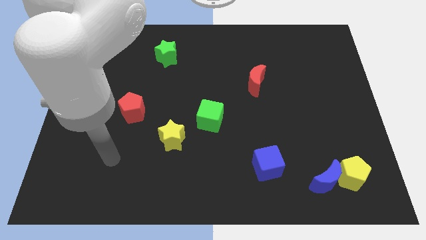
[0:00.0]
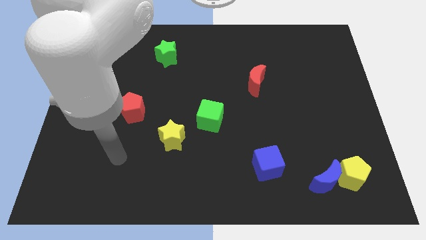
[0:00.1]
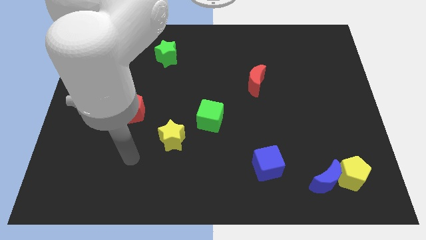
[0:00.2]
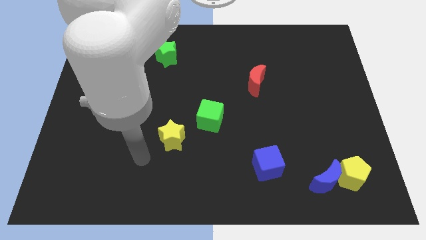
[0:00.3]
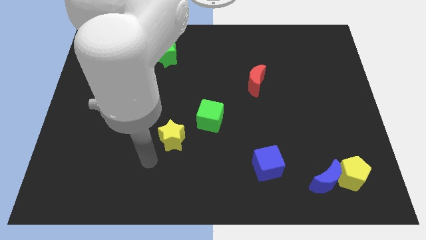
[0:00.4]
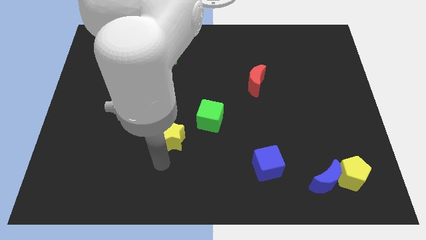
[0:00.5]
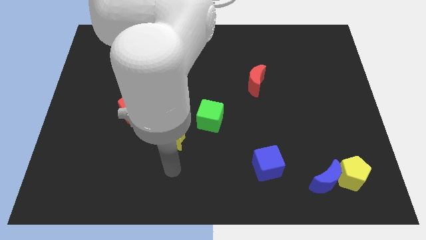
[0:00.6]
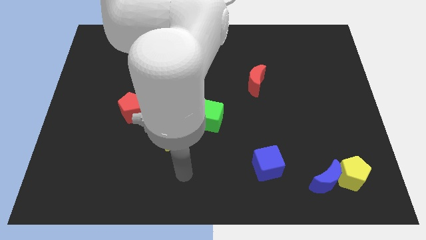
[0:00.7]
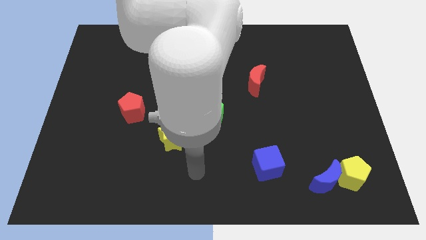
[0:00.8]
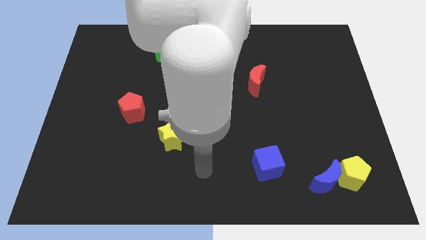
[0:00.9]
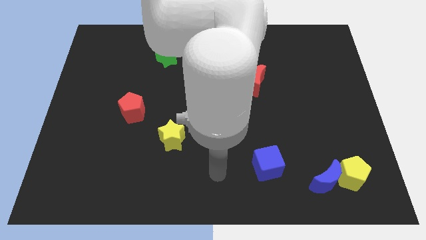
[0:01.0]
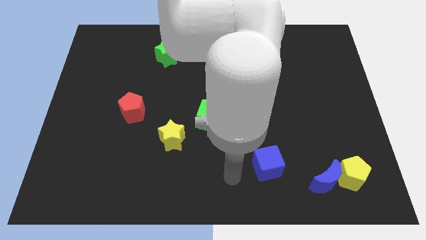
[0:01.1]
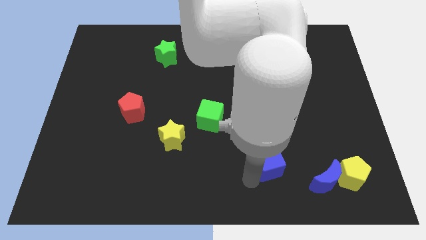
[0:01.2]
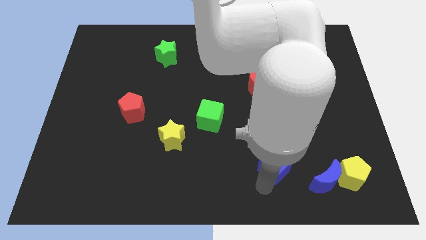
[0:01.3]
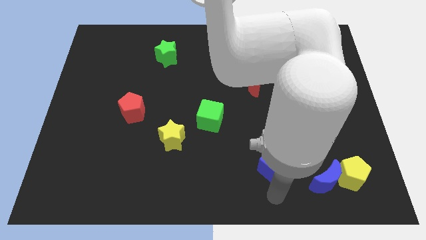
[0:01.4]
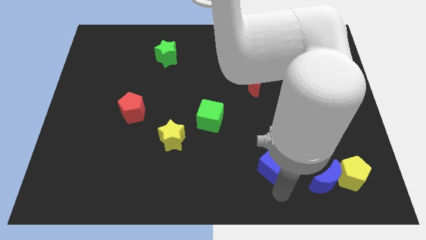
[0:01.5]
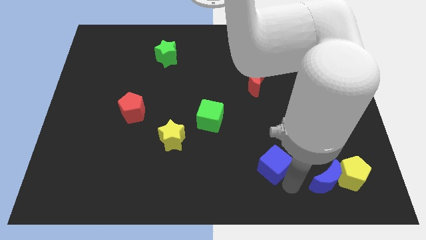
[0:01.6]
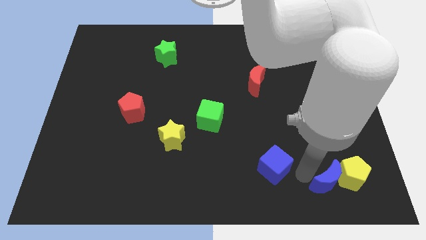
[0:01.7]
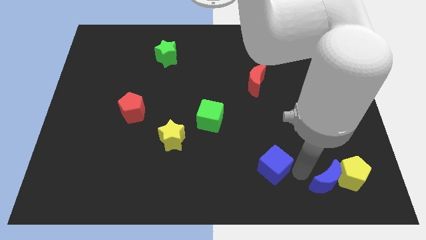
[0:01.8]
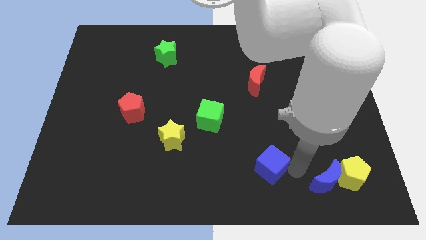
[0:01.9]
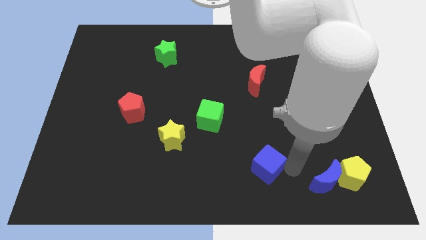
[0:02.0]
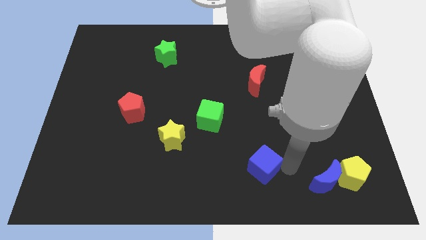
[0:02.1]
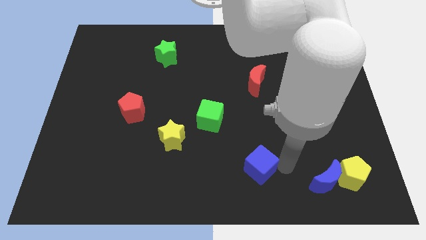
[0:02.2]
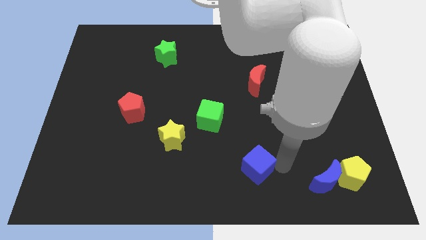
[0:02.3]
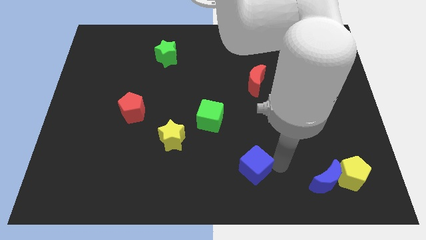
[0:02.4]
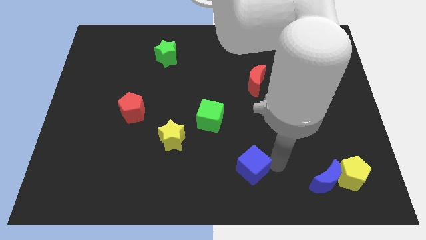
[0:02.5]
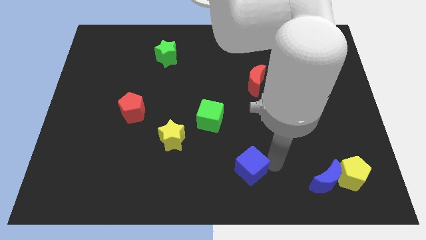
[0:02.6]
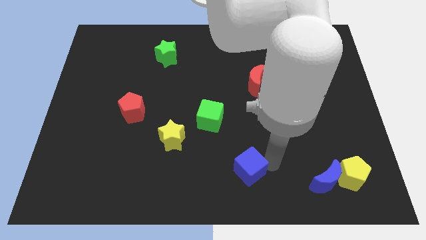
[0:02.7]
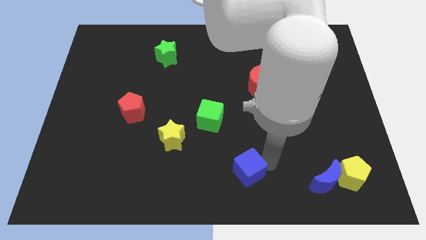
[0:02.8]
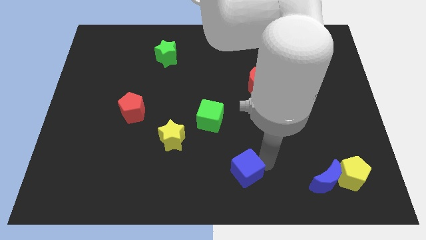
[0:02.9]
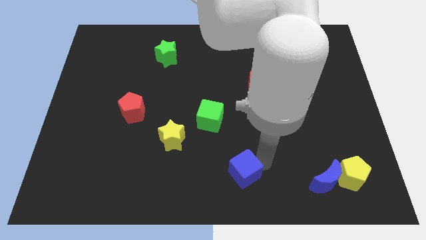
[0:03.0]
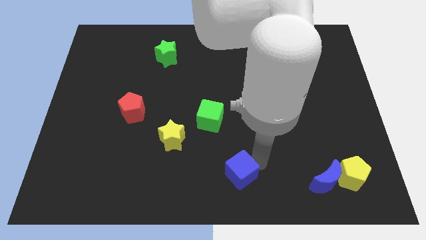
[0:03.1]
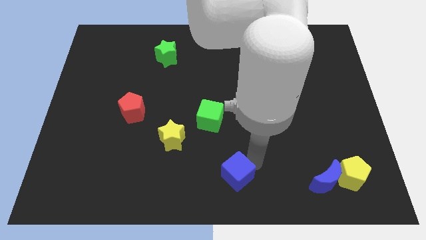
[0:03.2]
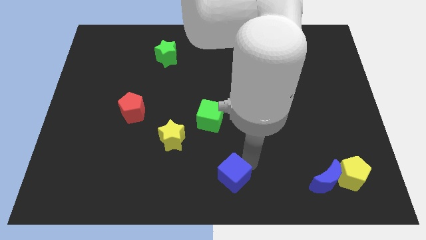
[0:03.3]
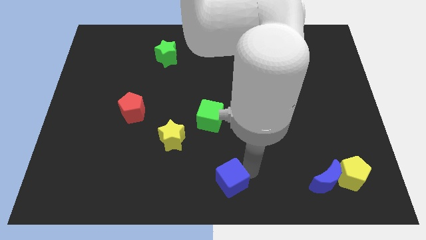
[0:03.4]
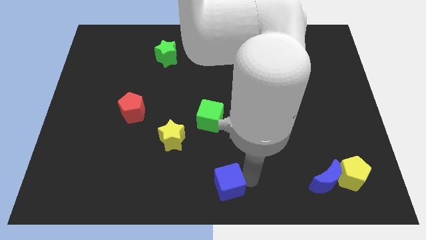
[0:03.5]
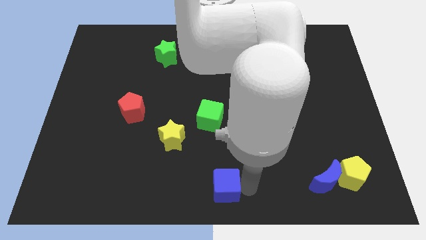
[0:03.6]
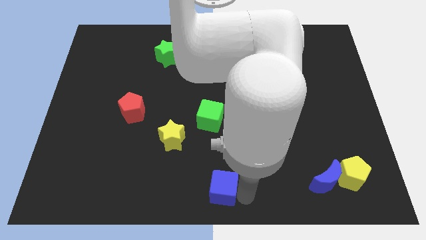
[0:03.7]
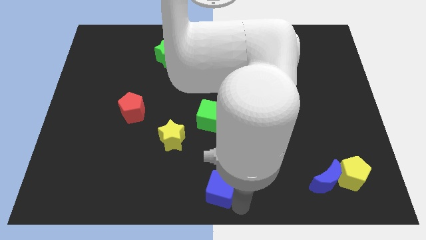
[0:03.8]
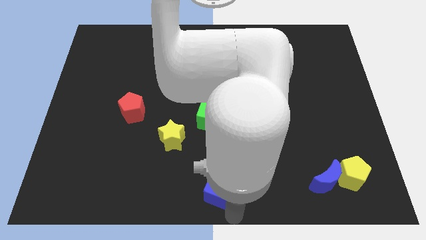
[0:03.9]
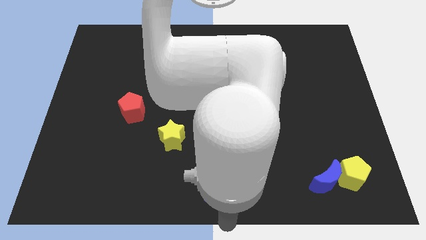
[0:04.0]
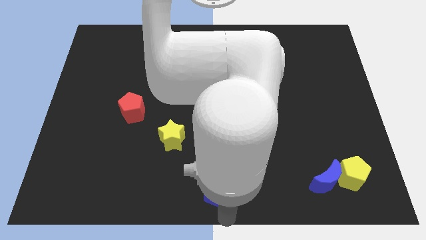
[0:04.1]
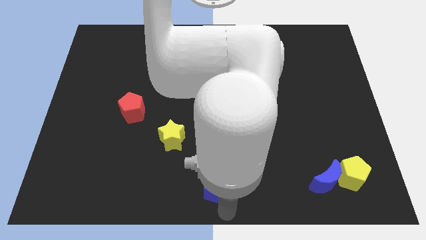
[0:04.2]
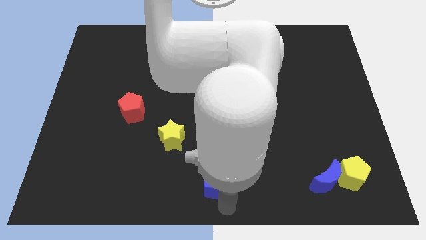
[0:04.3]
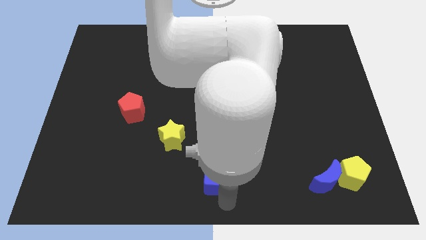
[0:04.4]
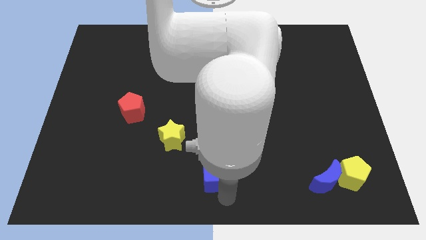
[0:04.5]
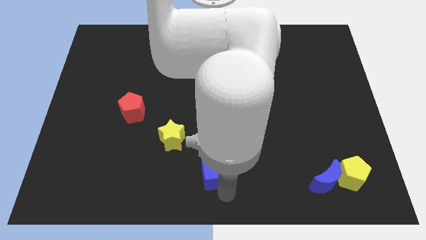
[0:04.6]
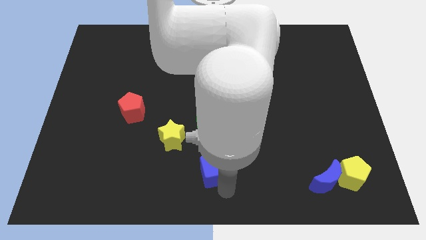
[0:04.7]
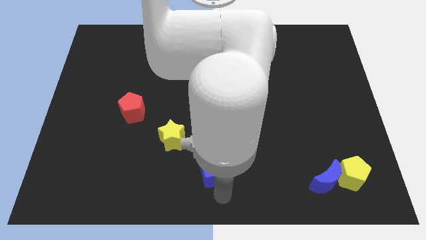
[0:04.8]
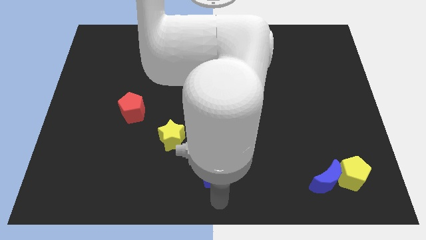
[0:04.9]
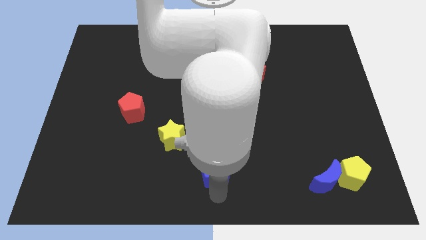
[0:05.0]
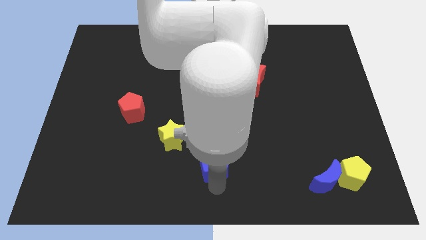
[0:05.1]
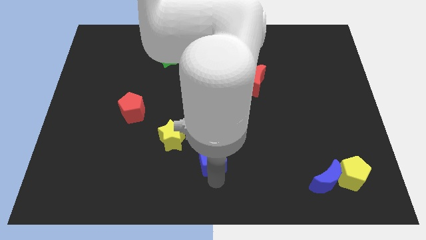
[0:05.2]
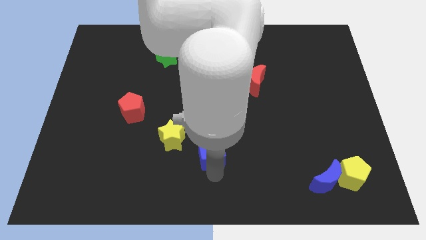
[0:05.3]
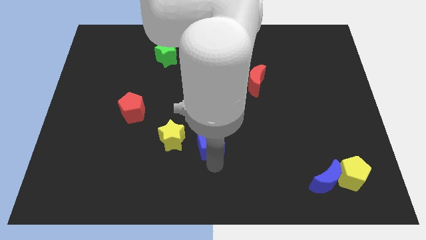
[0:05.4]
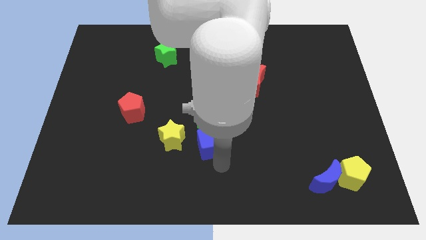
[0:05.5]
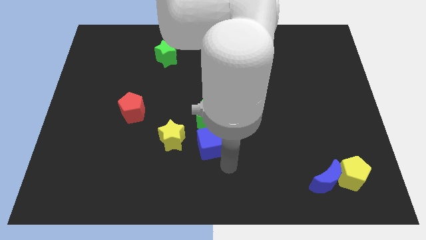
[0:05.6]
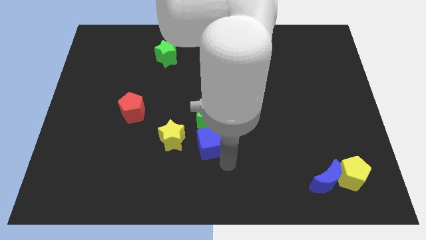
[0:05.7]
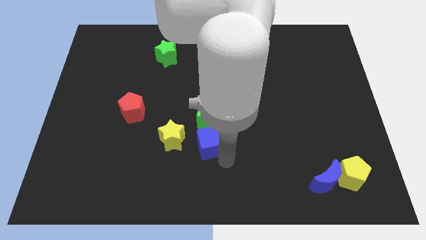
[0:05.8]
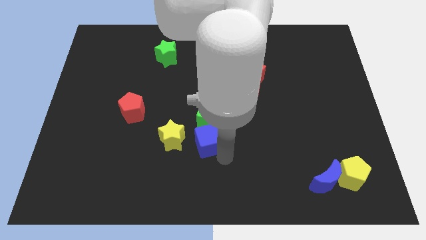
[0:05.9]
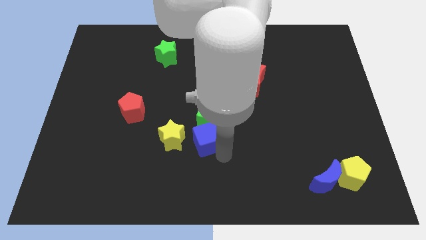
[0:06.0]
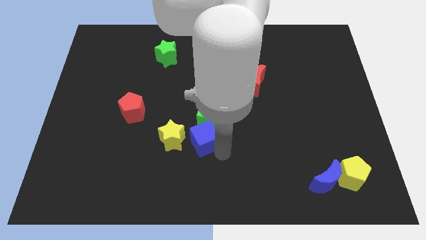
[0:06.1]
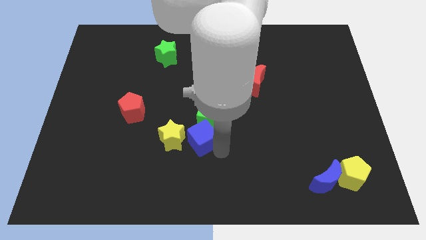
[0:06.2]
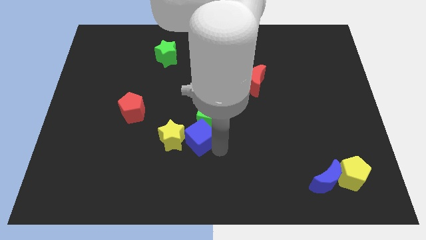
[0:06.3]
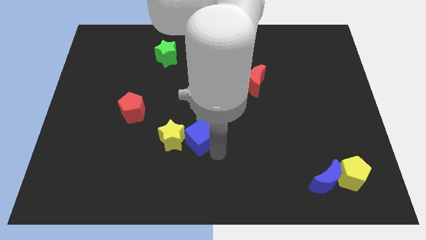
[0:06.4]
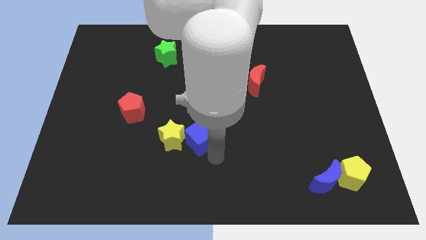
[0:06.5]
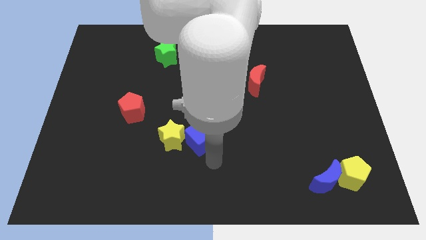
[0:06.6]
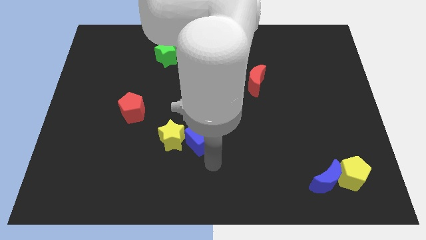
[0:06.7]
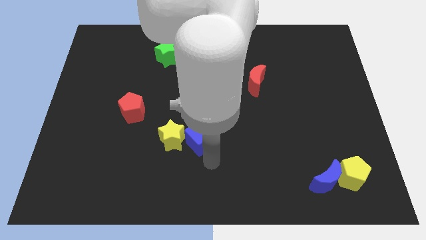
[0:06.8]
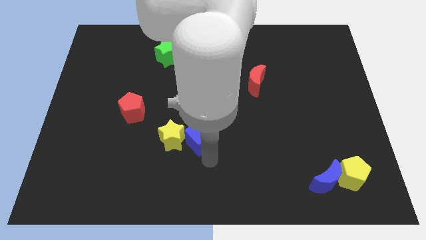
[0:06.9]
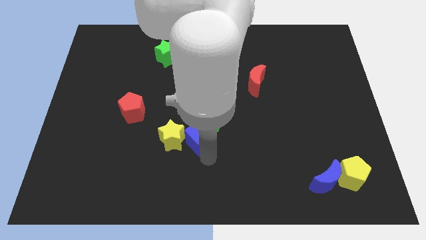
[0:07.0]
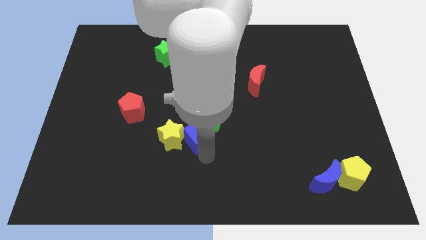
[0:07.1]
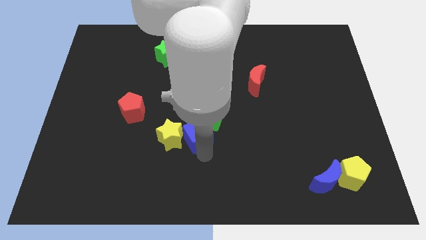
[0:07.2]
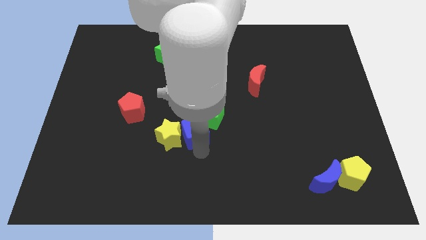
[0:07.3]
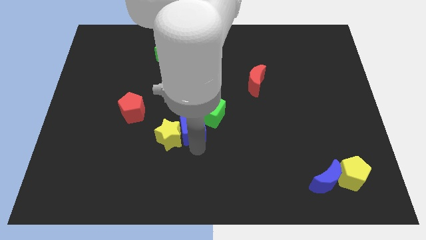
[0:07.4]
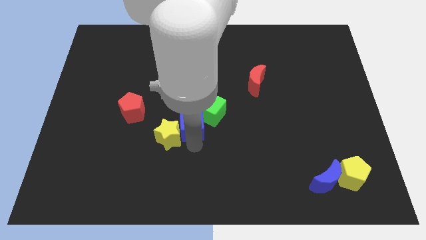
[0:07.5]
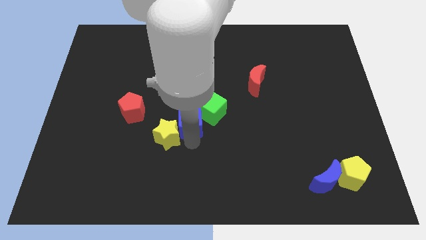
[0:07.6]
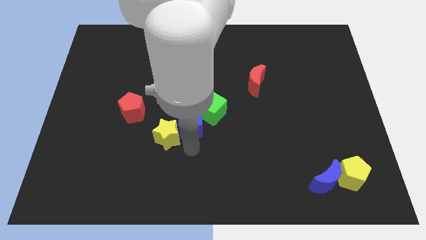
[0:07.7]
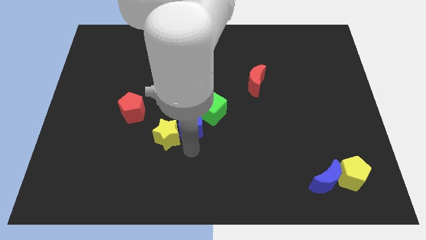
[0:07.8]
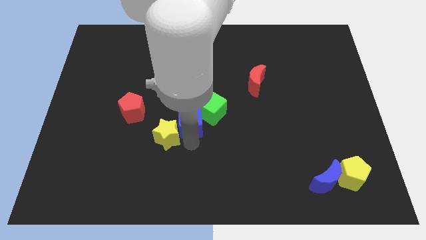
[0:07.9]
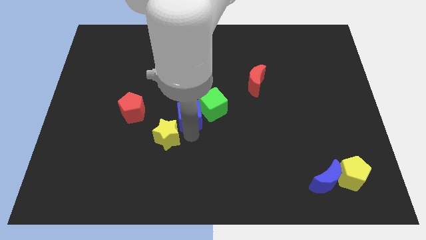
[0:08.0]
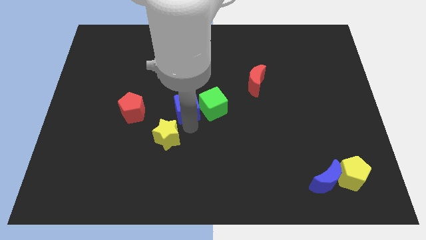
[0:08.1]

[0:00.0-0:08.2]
move the blue cube to the top left of the green cube
